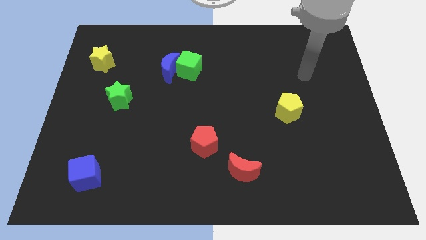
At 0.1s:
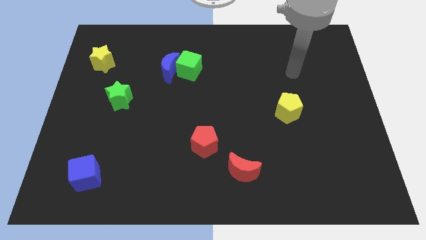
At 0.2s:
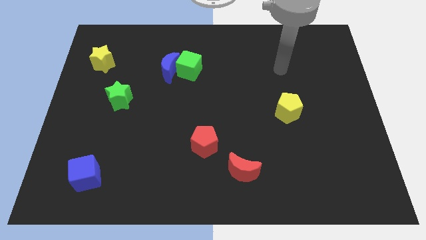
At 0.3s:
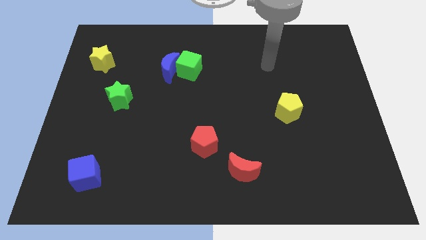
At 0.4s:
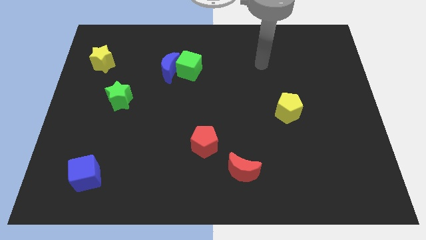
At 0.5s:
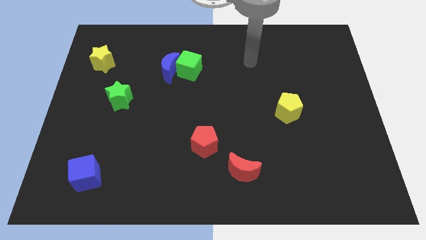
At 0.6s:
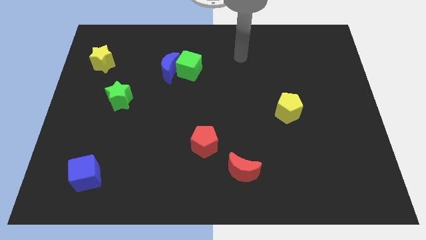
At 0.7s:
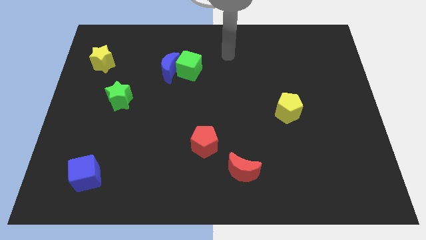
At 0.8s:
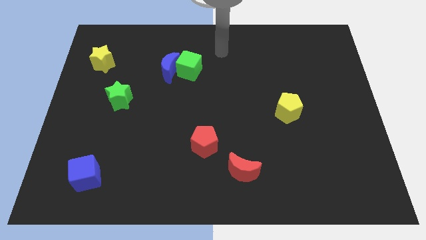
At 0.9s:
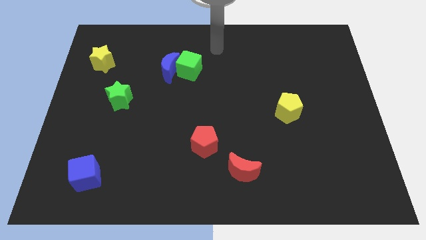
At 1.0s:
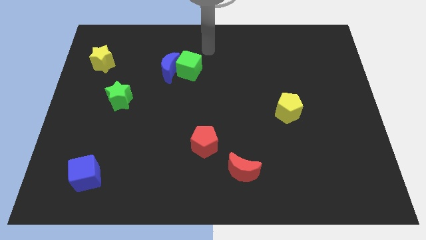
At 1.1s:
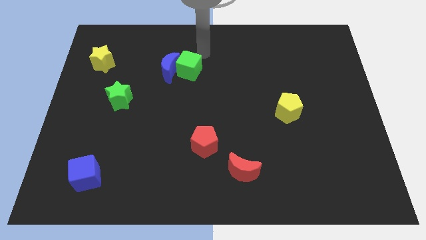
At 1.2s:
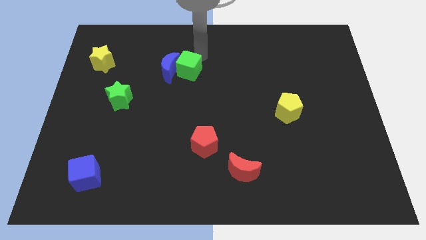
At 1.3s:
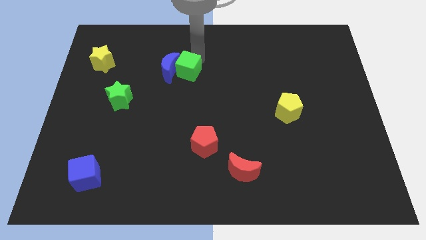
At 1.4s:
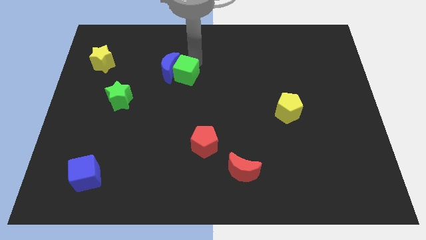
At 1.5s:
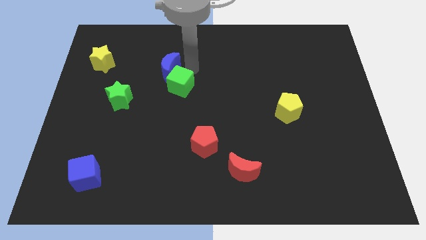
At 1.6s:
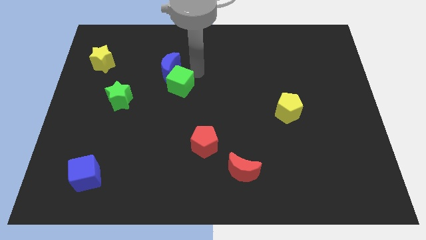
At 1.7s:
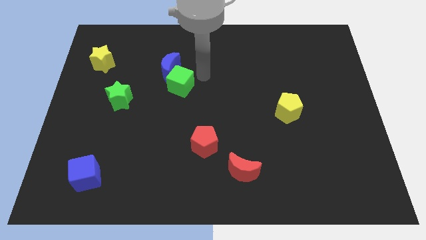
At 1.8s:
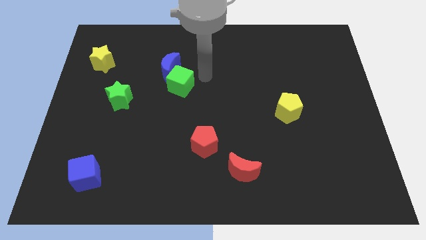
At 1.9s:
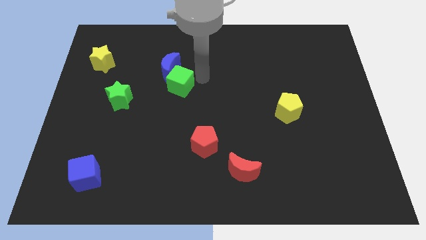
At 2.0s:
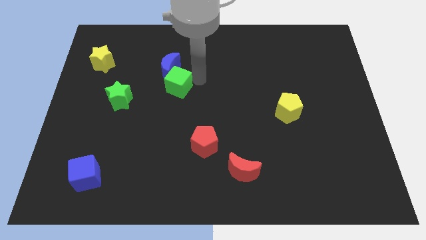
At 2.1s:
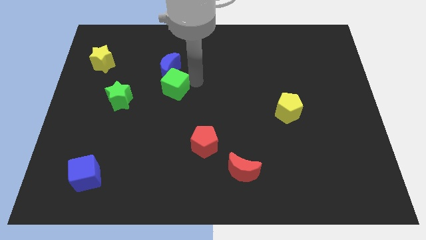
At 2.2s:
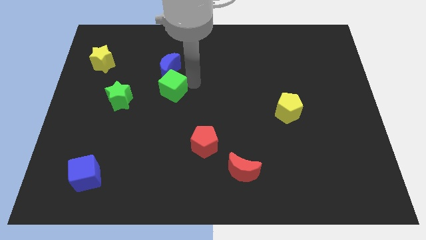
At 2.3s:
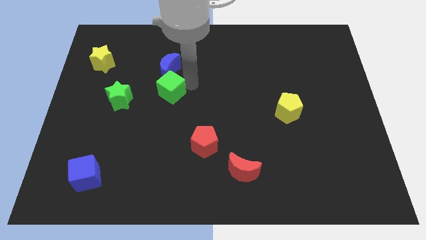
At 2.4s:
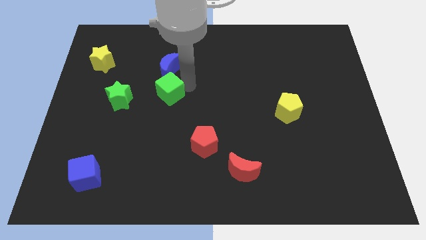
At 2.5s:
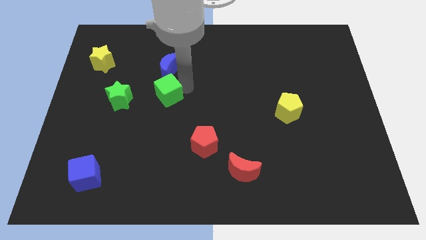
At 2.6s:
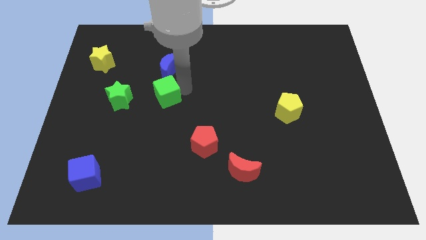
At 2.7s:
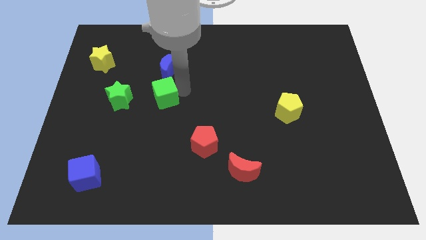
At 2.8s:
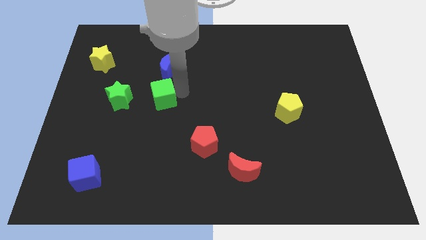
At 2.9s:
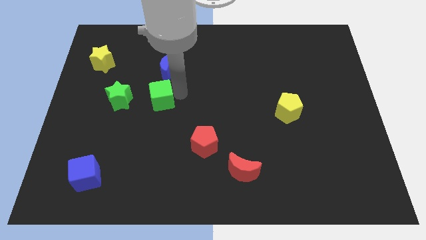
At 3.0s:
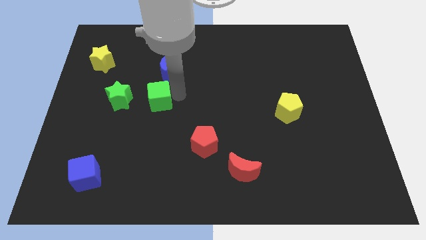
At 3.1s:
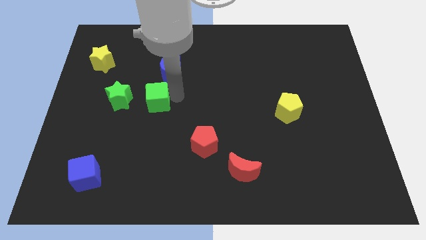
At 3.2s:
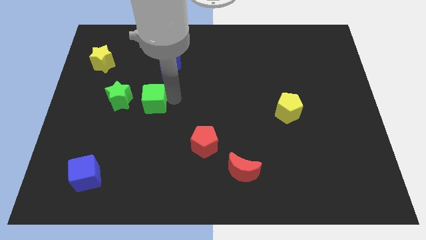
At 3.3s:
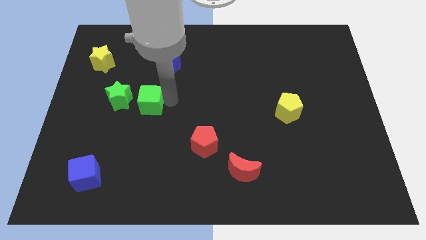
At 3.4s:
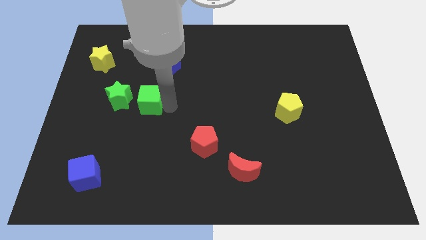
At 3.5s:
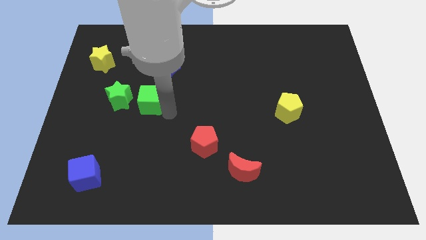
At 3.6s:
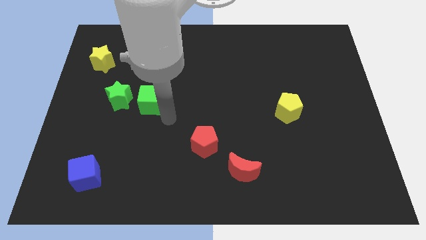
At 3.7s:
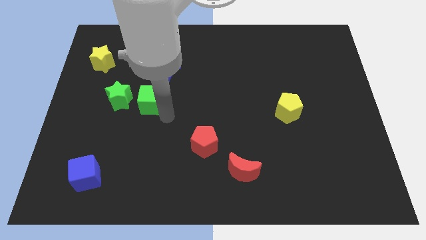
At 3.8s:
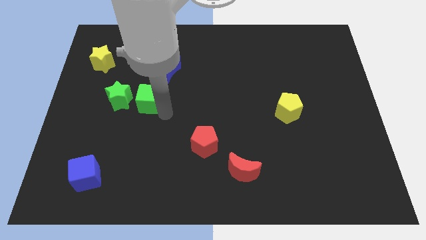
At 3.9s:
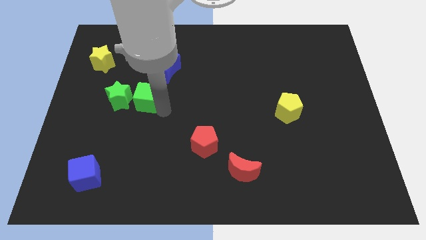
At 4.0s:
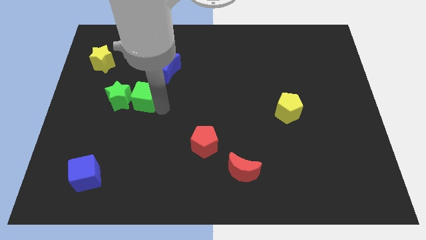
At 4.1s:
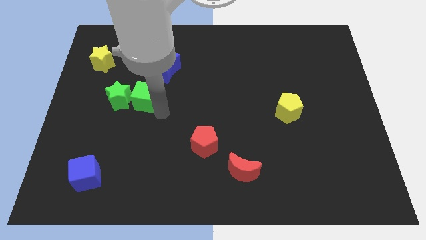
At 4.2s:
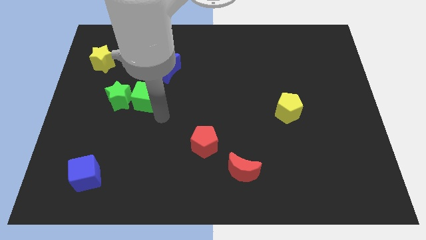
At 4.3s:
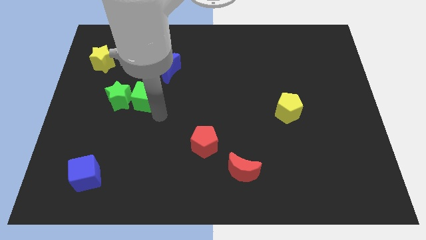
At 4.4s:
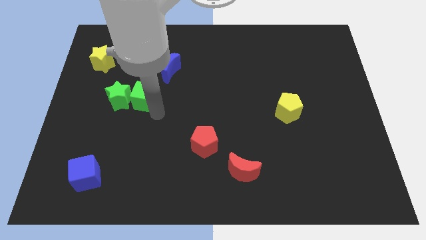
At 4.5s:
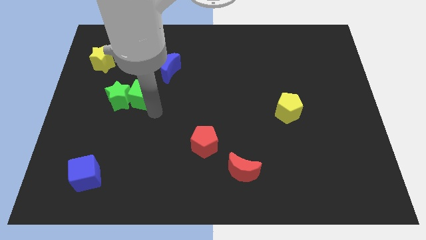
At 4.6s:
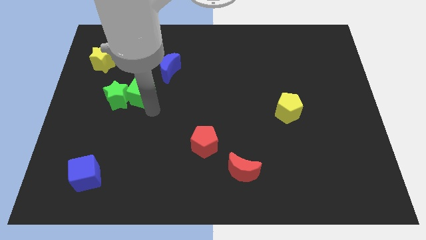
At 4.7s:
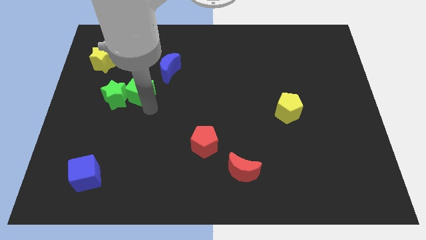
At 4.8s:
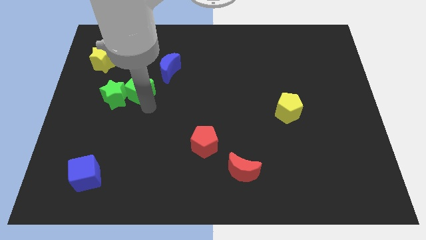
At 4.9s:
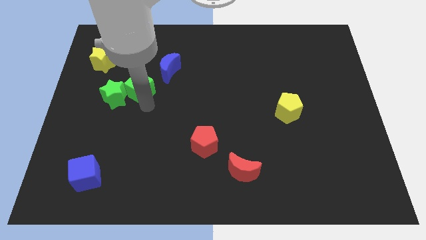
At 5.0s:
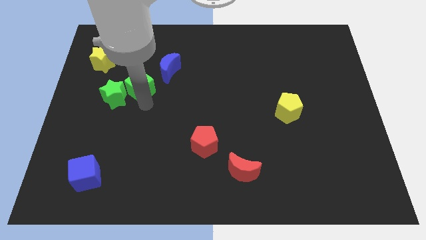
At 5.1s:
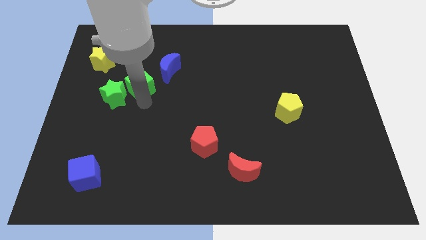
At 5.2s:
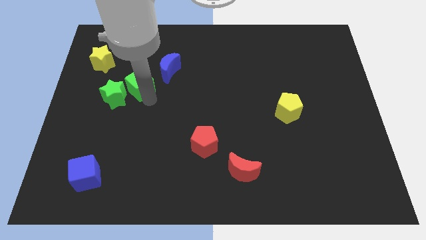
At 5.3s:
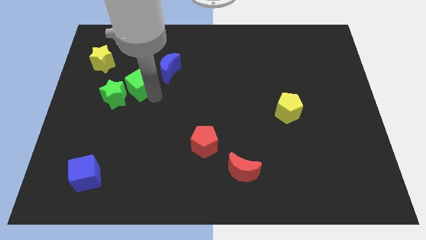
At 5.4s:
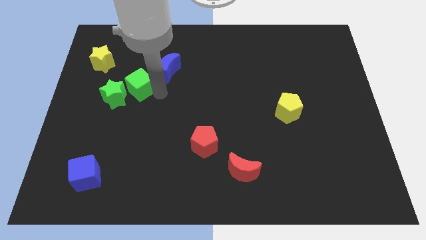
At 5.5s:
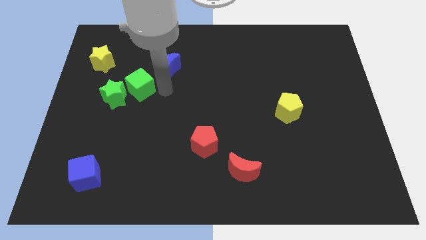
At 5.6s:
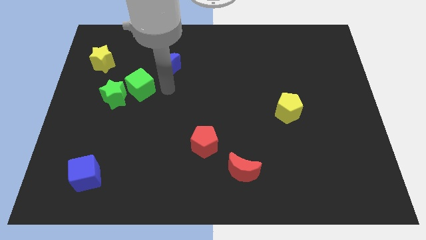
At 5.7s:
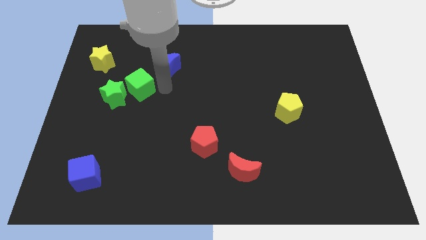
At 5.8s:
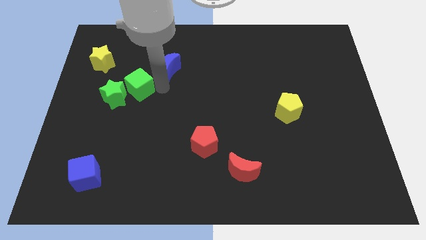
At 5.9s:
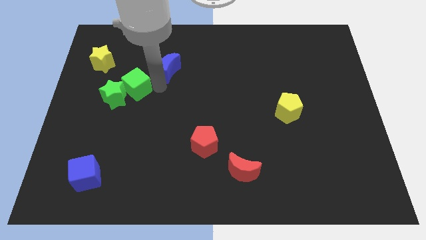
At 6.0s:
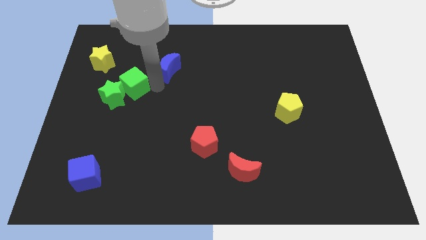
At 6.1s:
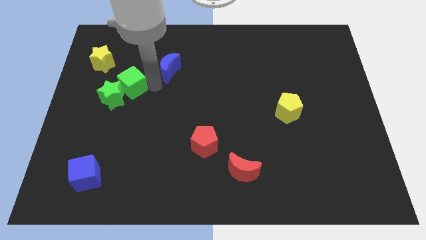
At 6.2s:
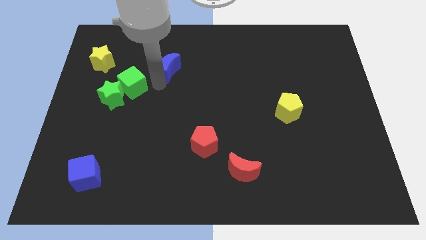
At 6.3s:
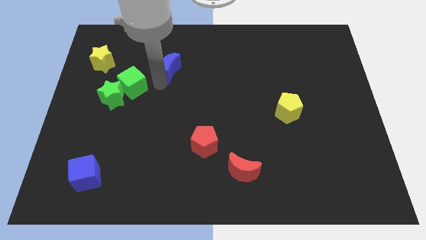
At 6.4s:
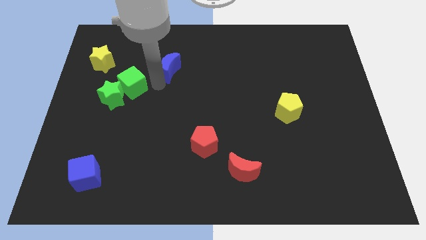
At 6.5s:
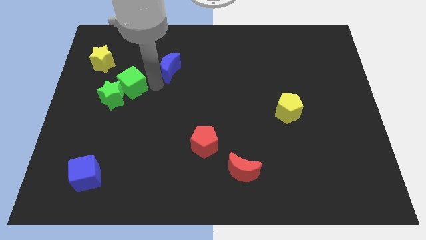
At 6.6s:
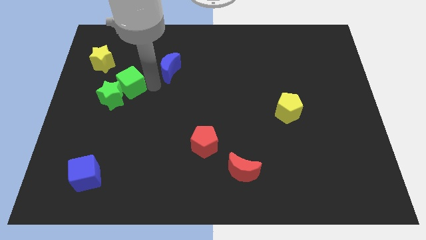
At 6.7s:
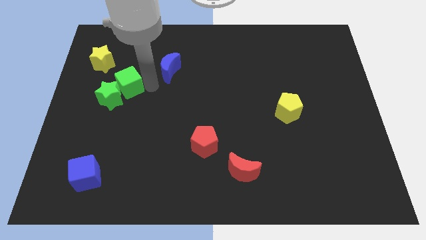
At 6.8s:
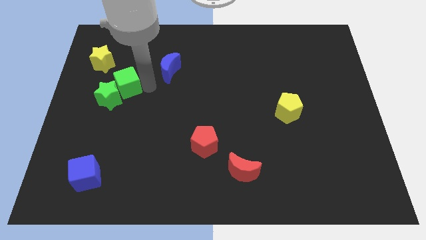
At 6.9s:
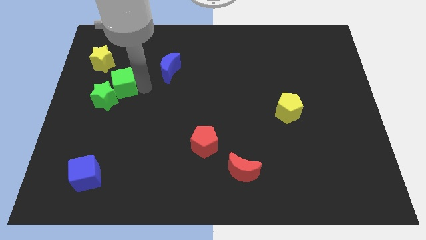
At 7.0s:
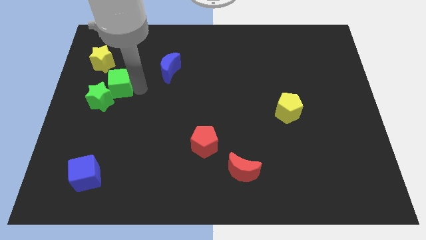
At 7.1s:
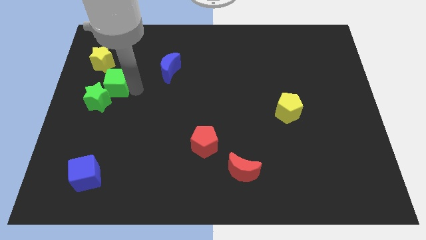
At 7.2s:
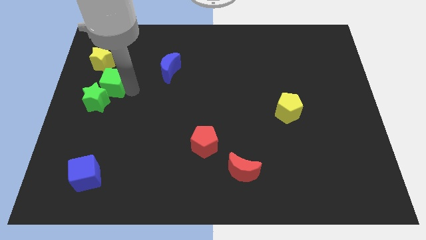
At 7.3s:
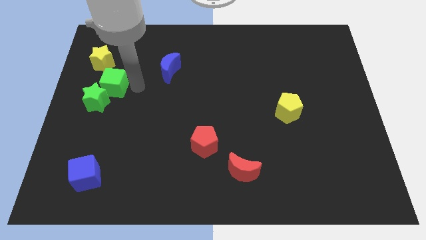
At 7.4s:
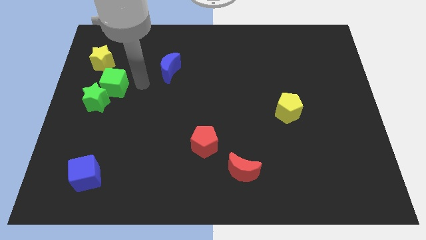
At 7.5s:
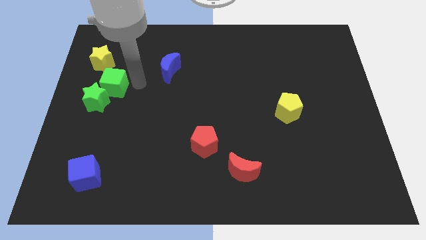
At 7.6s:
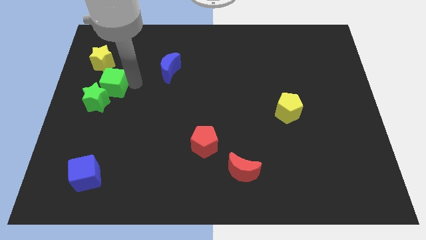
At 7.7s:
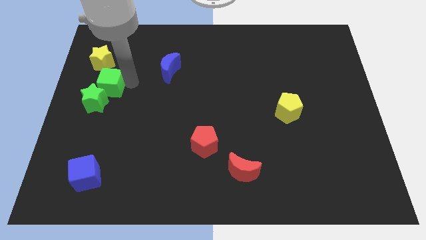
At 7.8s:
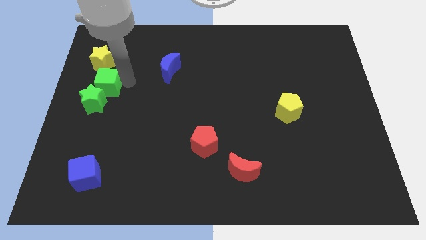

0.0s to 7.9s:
slide the green cube to the left side of the board
